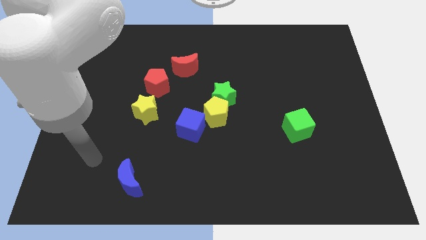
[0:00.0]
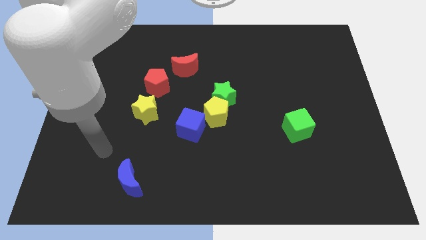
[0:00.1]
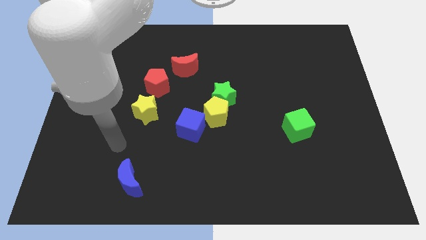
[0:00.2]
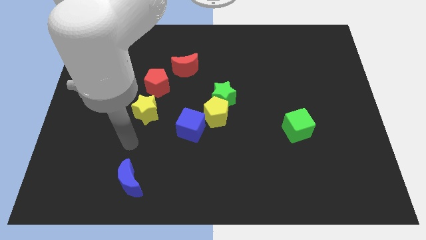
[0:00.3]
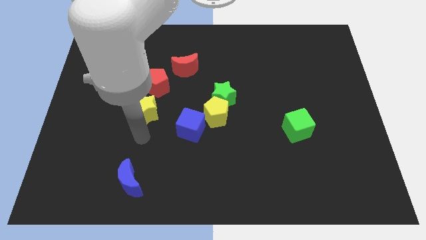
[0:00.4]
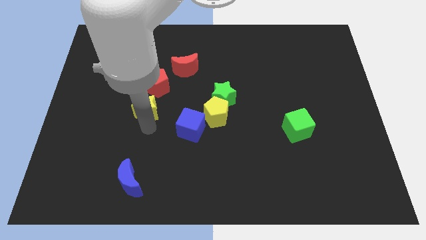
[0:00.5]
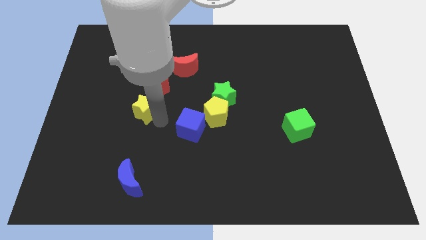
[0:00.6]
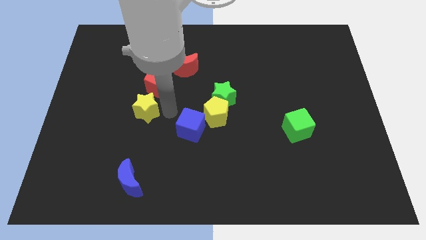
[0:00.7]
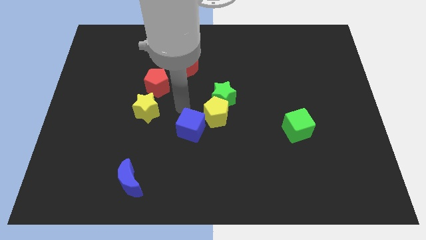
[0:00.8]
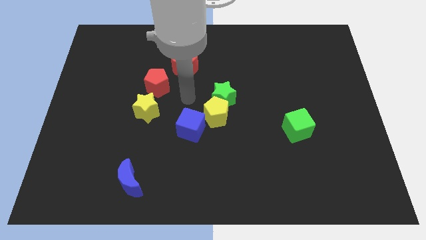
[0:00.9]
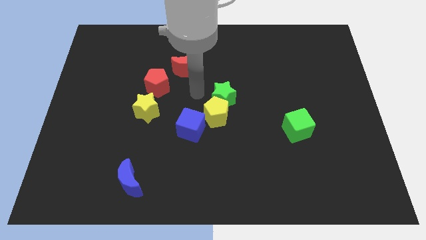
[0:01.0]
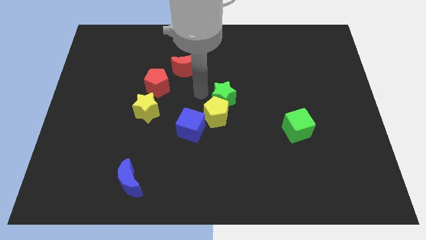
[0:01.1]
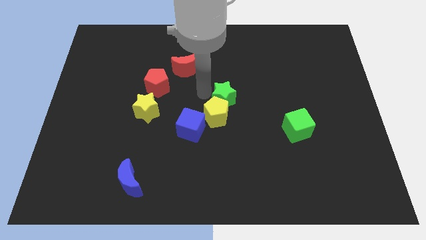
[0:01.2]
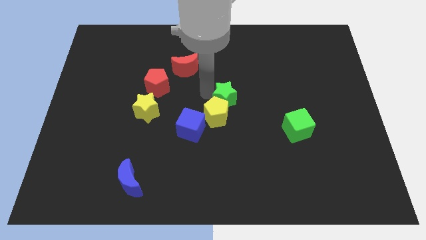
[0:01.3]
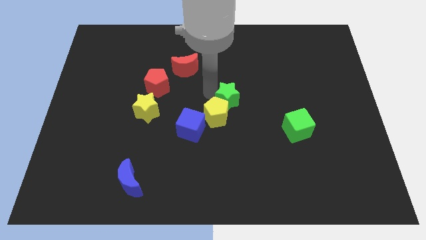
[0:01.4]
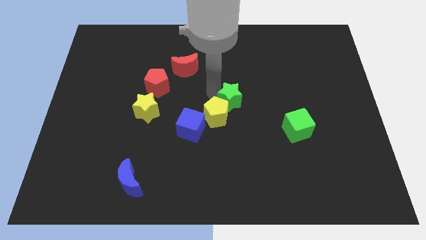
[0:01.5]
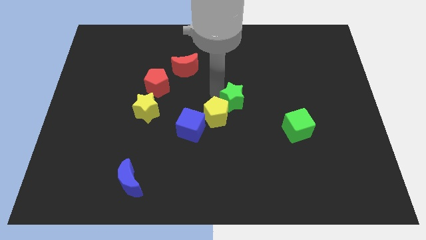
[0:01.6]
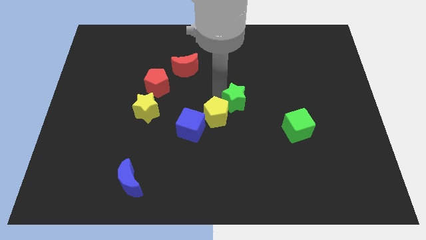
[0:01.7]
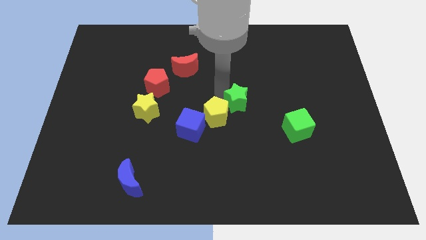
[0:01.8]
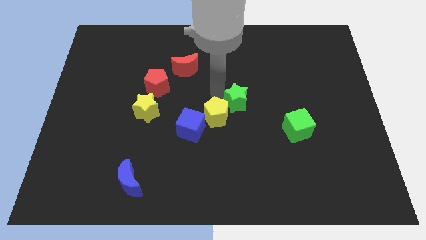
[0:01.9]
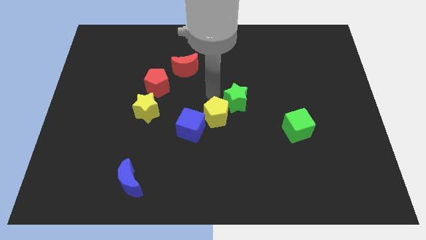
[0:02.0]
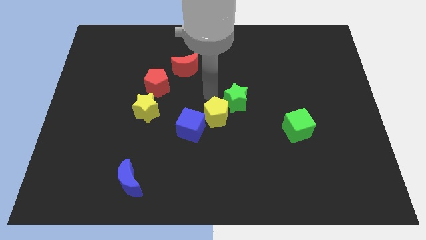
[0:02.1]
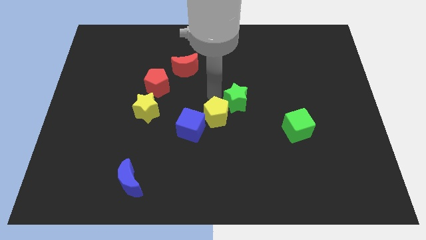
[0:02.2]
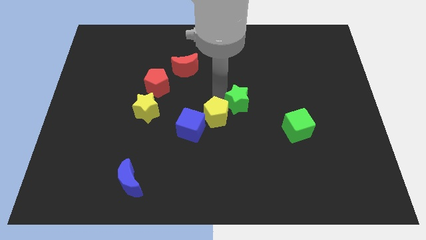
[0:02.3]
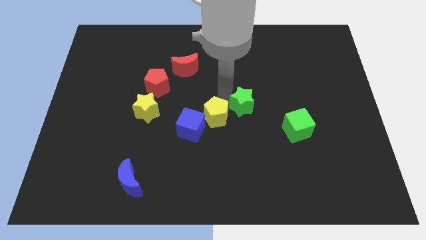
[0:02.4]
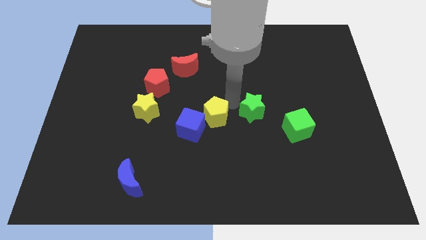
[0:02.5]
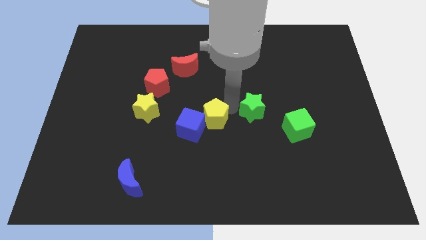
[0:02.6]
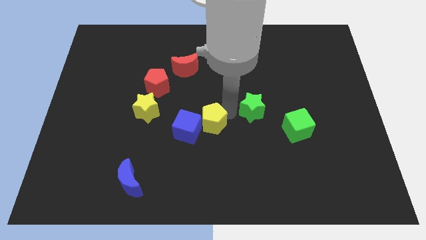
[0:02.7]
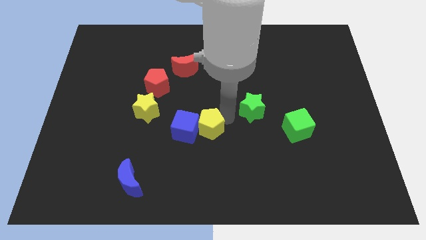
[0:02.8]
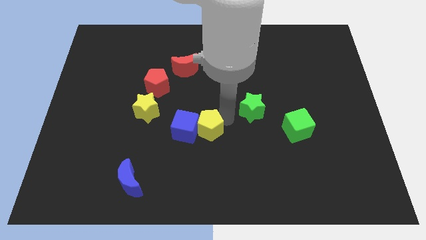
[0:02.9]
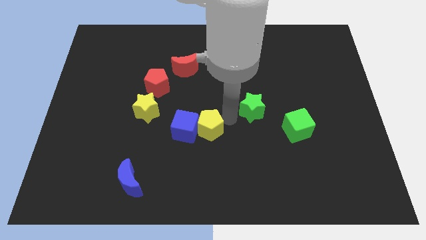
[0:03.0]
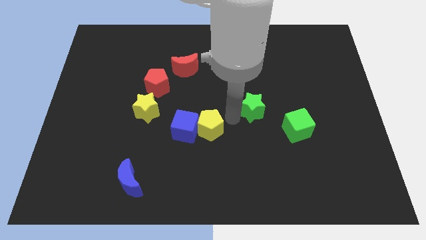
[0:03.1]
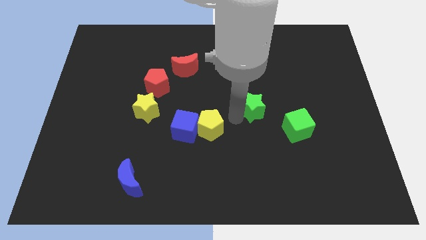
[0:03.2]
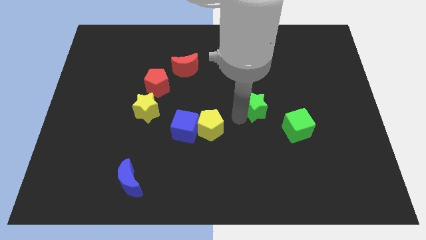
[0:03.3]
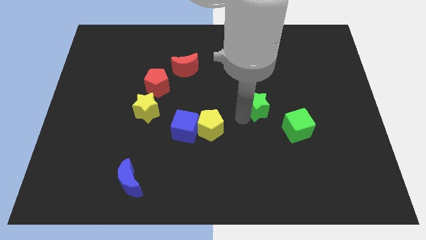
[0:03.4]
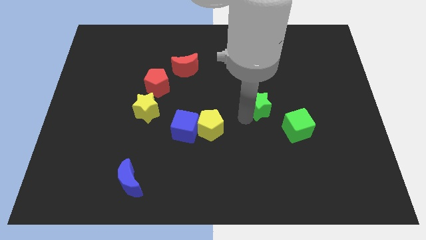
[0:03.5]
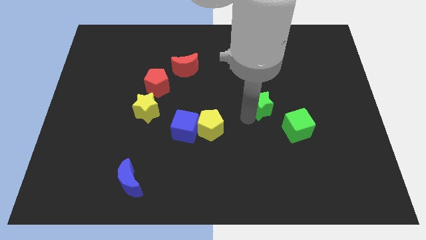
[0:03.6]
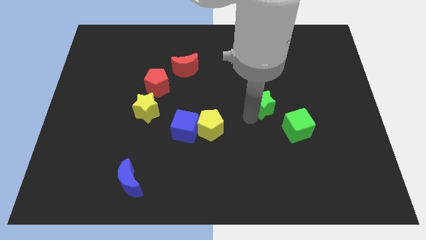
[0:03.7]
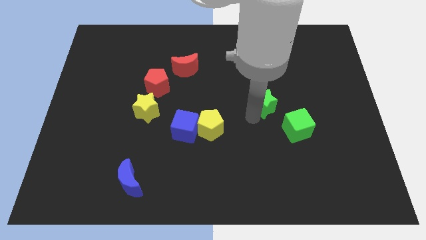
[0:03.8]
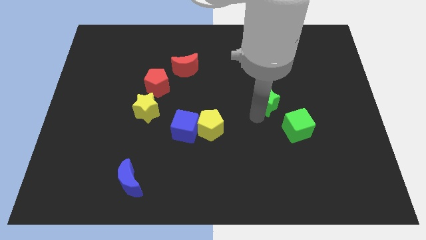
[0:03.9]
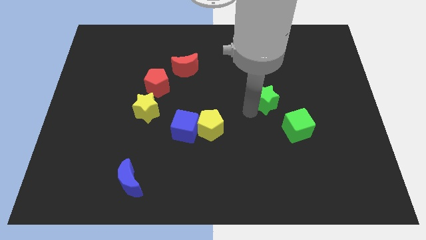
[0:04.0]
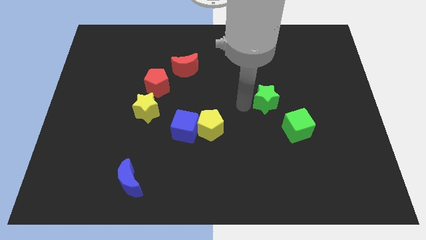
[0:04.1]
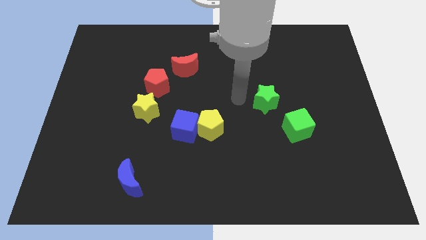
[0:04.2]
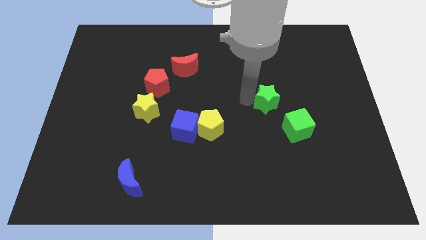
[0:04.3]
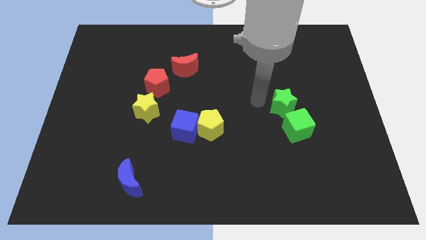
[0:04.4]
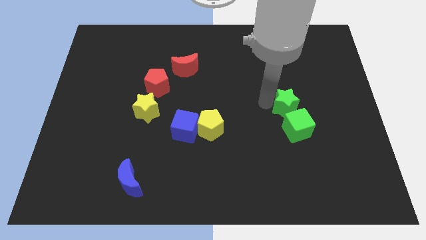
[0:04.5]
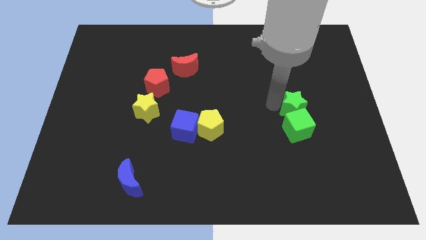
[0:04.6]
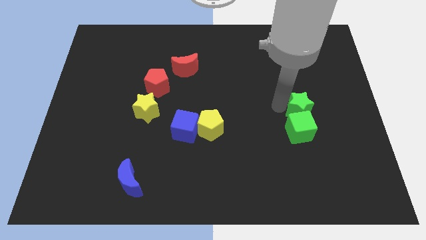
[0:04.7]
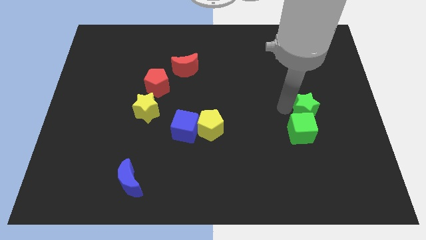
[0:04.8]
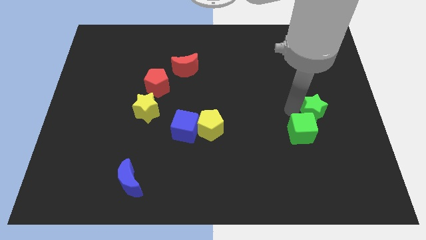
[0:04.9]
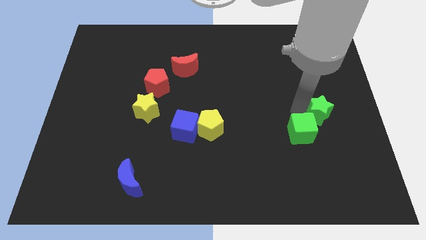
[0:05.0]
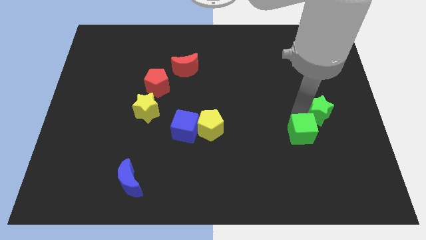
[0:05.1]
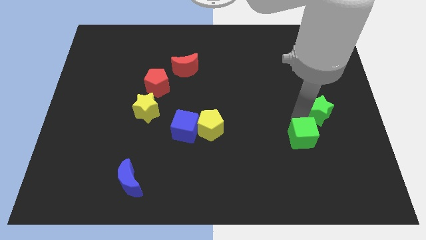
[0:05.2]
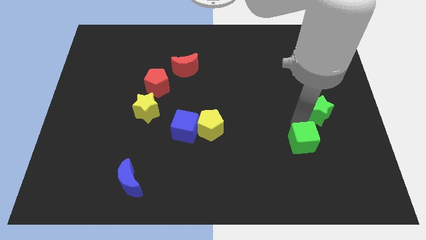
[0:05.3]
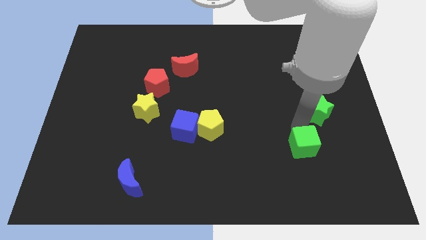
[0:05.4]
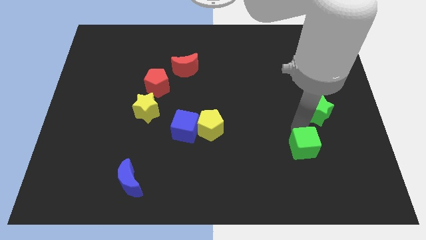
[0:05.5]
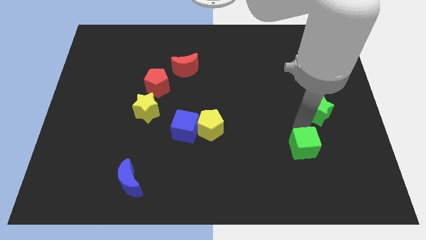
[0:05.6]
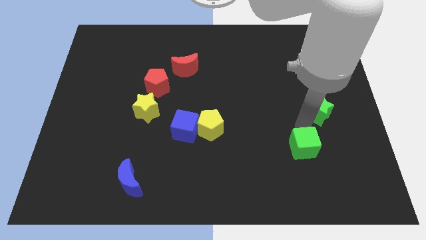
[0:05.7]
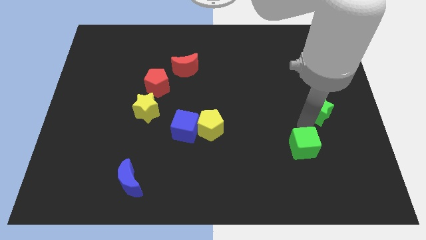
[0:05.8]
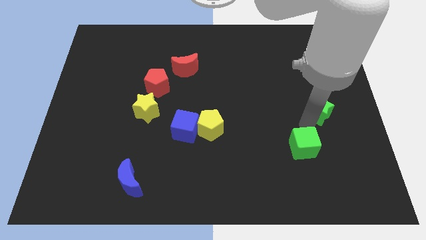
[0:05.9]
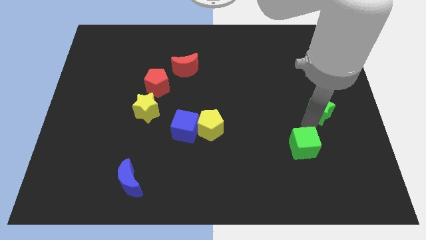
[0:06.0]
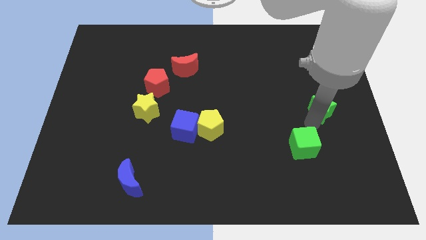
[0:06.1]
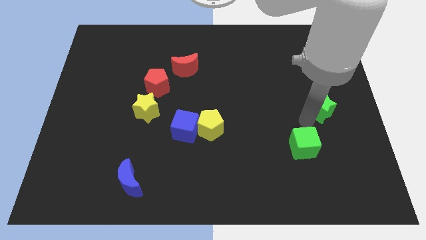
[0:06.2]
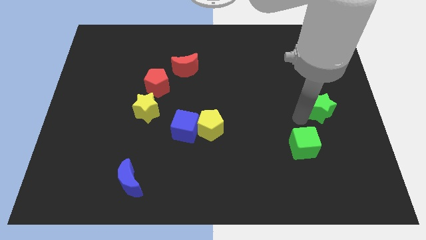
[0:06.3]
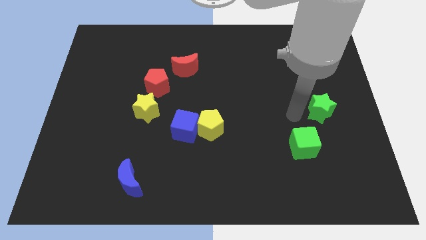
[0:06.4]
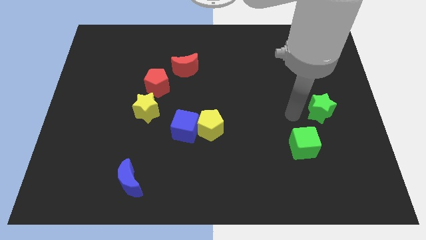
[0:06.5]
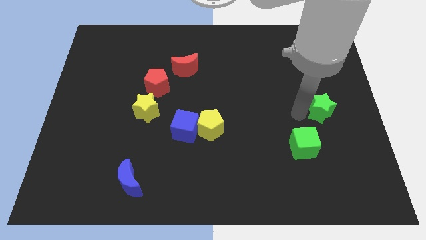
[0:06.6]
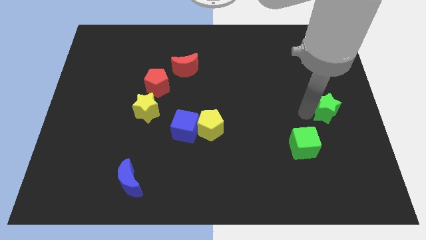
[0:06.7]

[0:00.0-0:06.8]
push the green star to the center right

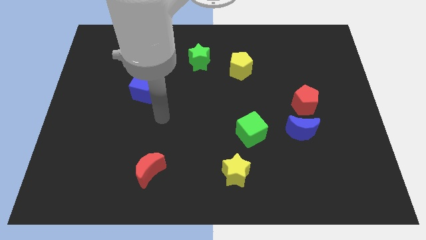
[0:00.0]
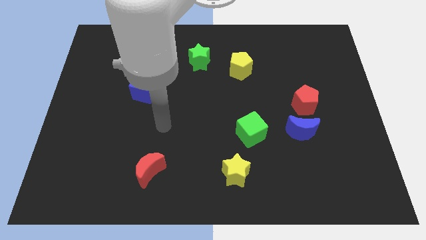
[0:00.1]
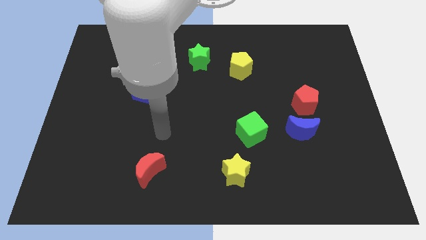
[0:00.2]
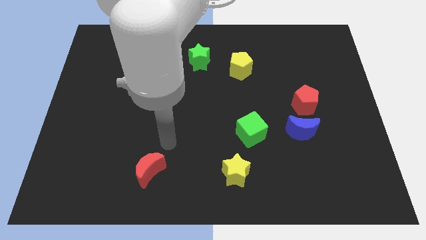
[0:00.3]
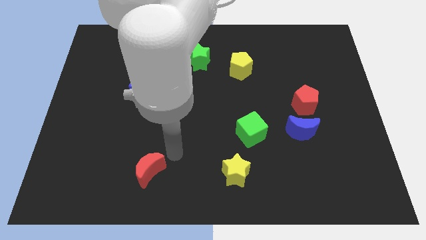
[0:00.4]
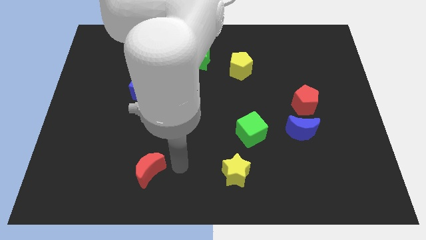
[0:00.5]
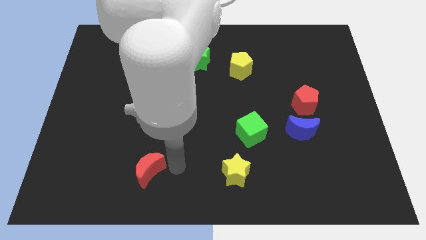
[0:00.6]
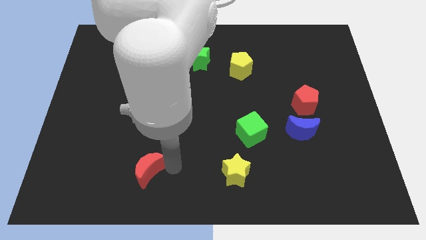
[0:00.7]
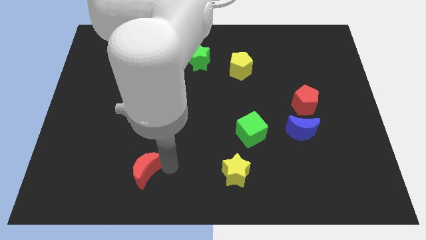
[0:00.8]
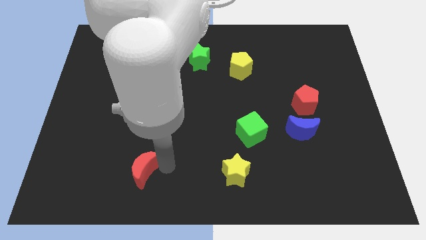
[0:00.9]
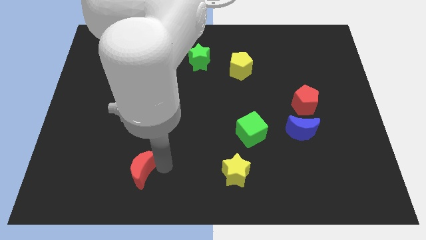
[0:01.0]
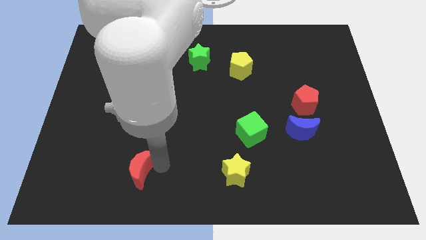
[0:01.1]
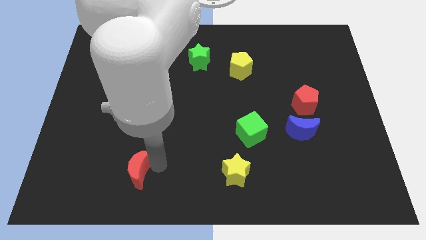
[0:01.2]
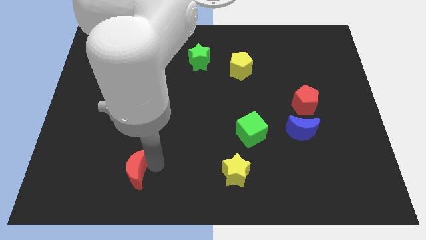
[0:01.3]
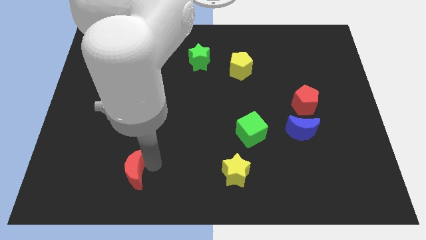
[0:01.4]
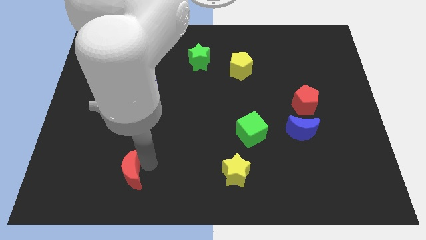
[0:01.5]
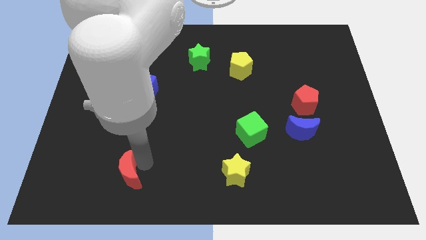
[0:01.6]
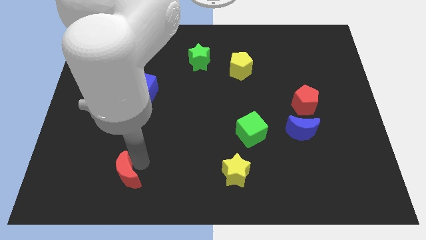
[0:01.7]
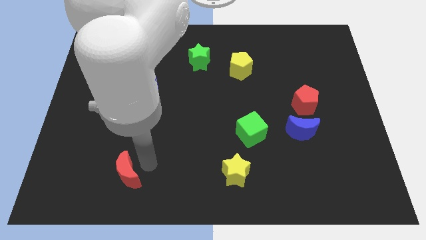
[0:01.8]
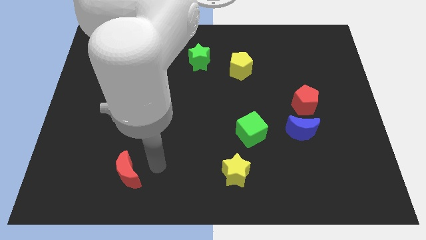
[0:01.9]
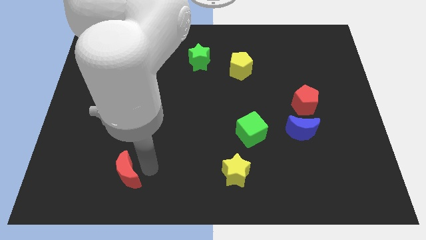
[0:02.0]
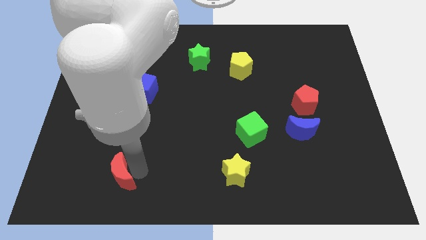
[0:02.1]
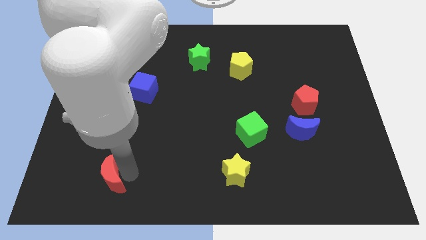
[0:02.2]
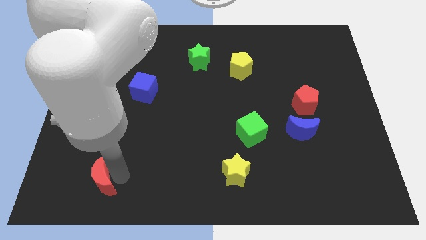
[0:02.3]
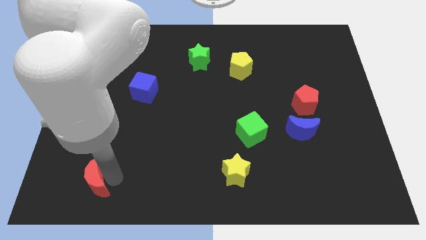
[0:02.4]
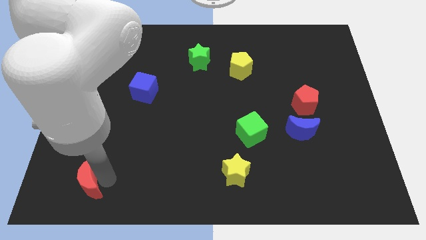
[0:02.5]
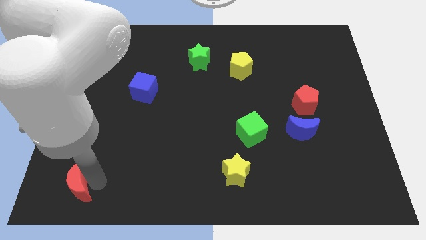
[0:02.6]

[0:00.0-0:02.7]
push the red moon to the bottom left of the board
